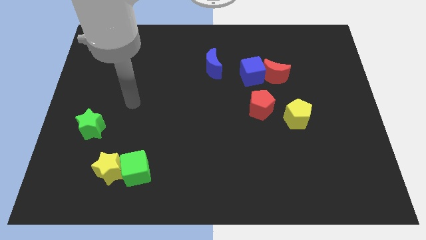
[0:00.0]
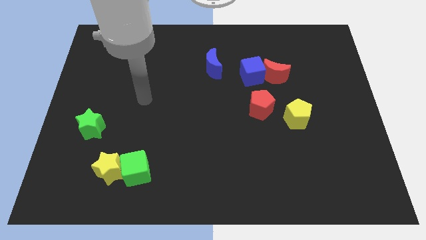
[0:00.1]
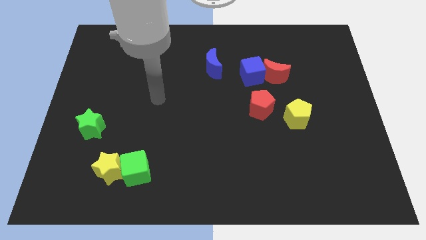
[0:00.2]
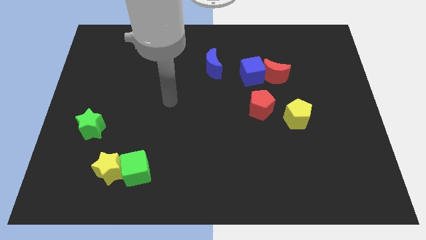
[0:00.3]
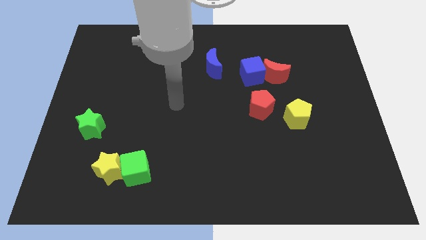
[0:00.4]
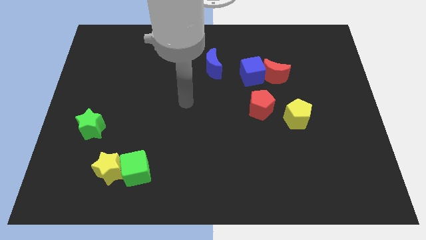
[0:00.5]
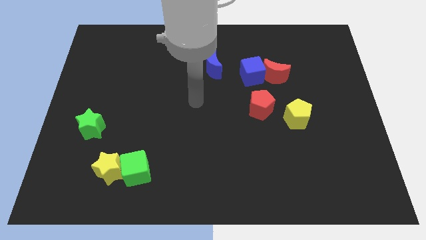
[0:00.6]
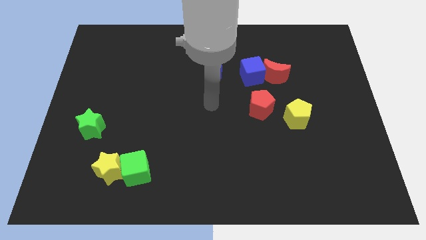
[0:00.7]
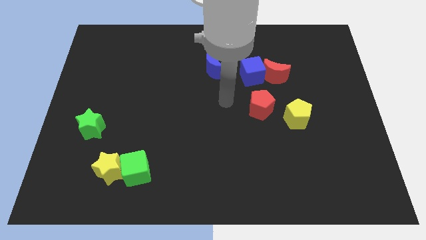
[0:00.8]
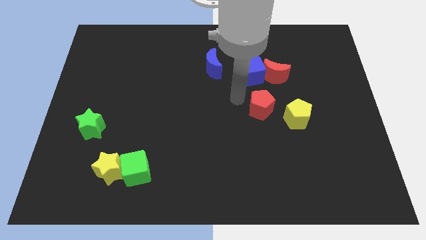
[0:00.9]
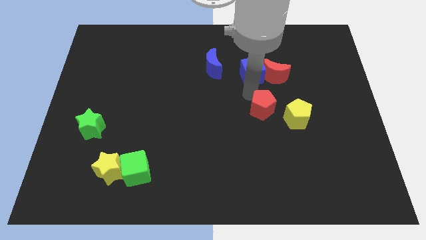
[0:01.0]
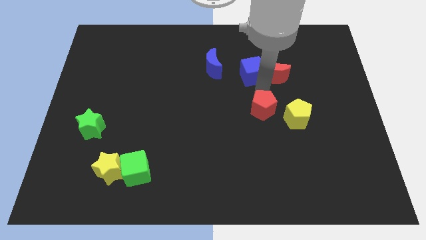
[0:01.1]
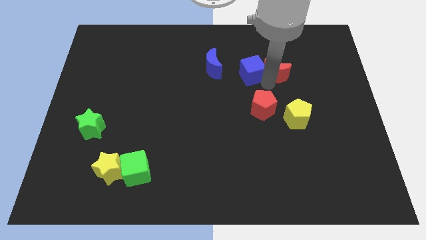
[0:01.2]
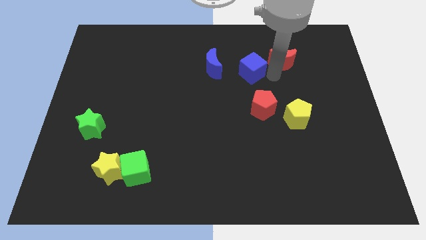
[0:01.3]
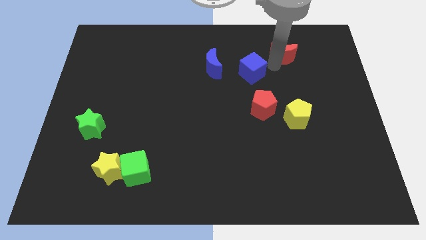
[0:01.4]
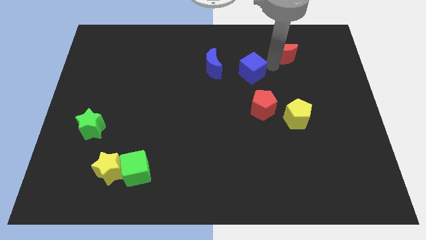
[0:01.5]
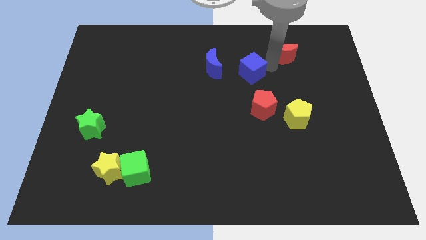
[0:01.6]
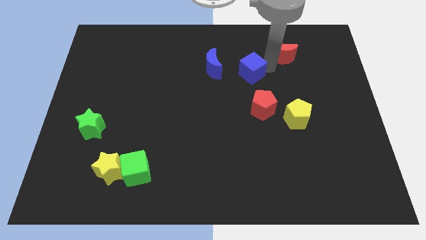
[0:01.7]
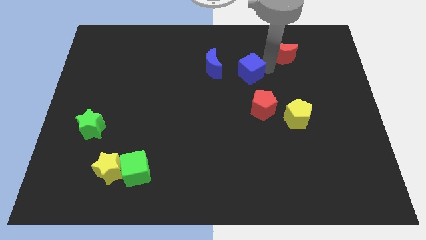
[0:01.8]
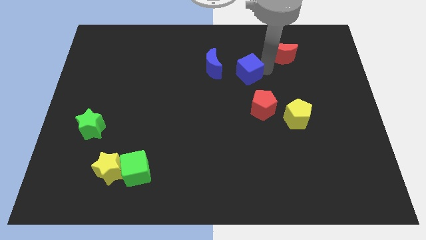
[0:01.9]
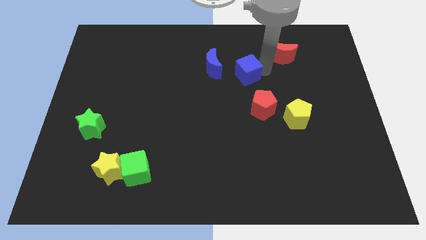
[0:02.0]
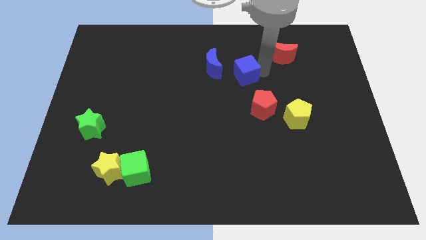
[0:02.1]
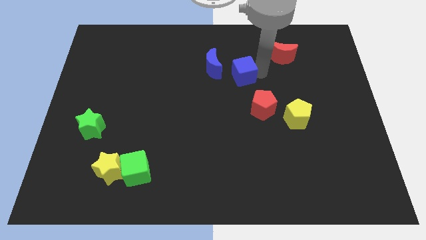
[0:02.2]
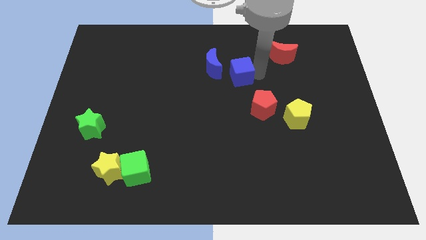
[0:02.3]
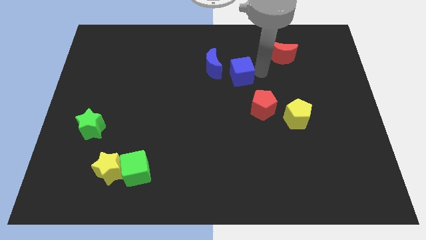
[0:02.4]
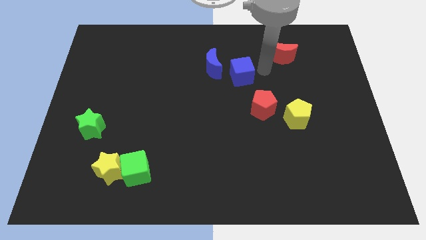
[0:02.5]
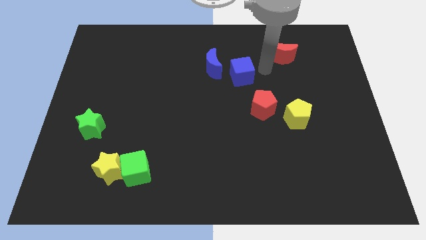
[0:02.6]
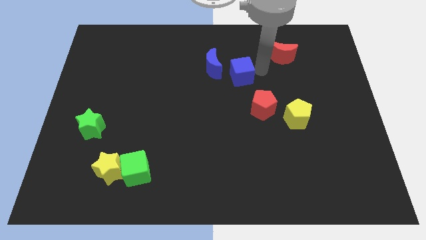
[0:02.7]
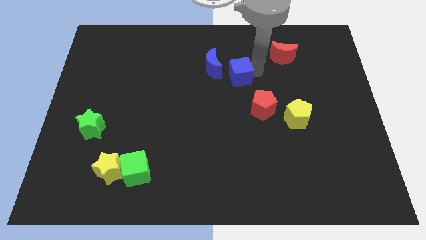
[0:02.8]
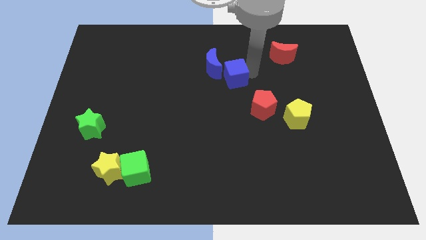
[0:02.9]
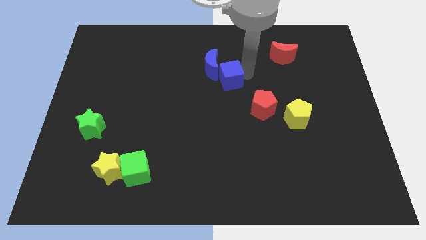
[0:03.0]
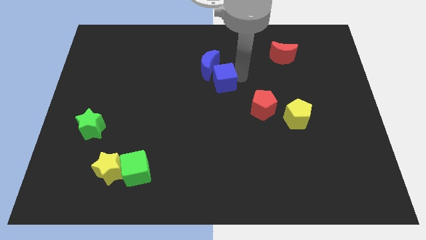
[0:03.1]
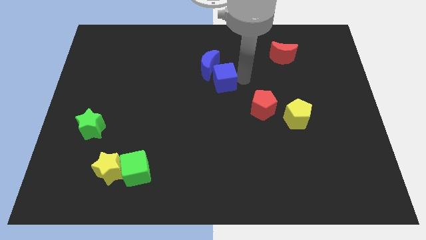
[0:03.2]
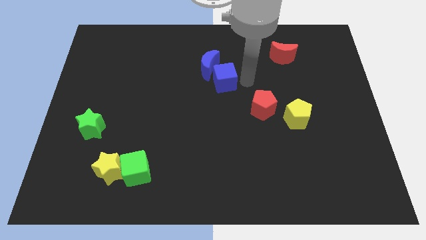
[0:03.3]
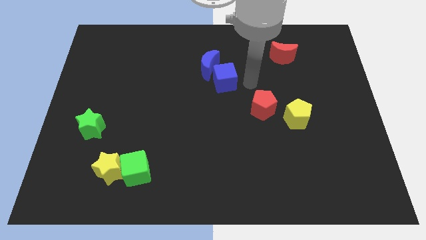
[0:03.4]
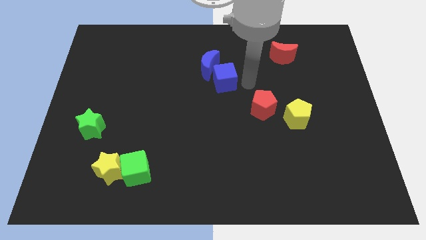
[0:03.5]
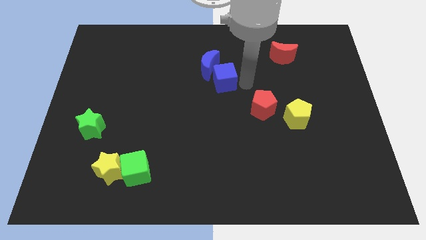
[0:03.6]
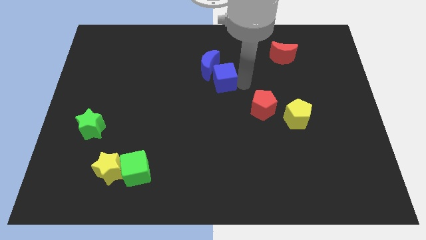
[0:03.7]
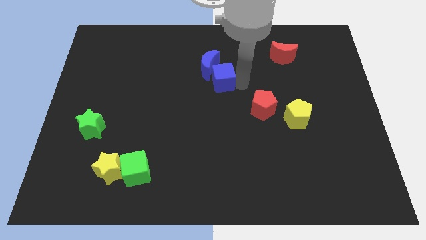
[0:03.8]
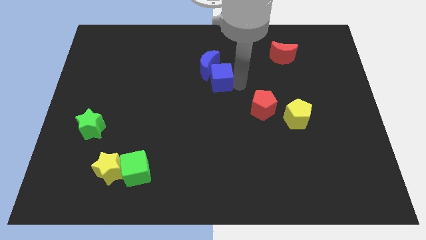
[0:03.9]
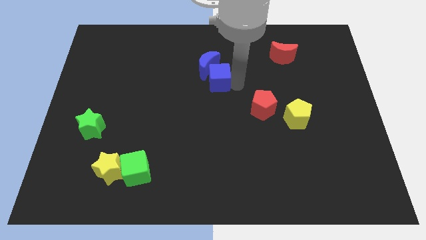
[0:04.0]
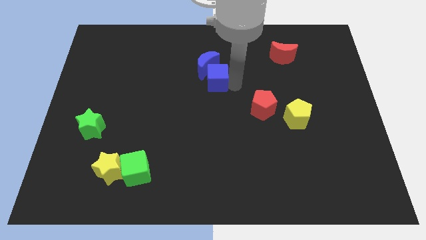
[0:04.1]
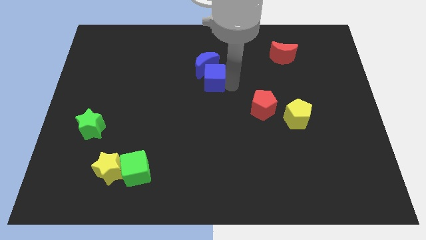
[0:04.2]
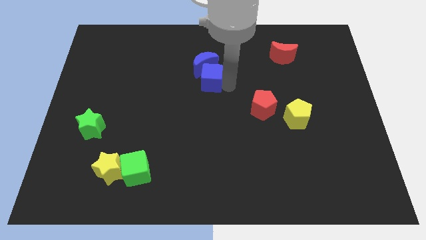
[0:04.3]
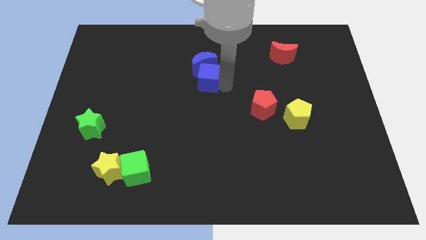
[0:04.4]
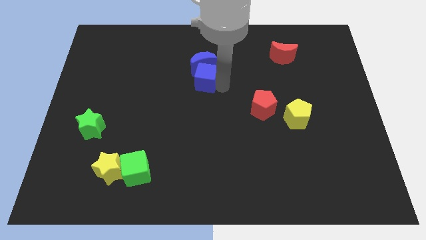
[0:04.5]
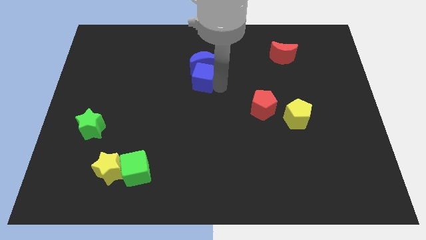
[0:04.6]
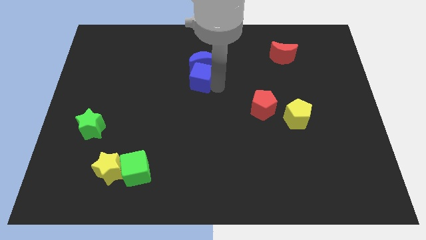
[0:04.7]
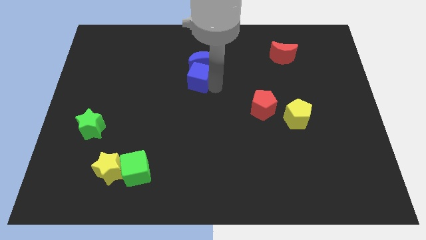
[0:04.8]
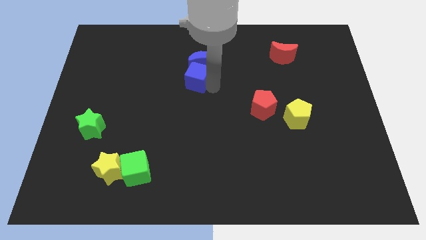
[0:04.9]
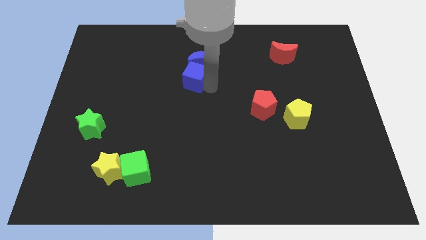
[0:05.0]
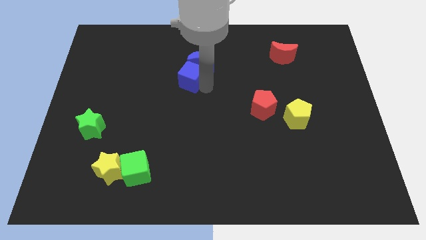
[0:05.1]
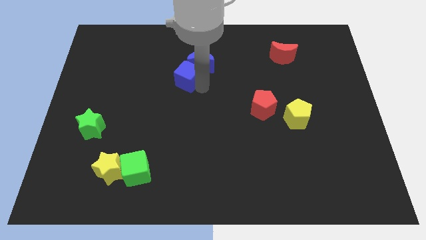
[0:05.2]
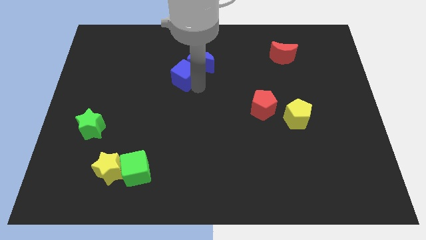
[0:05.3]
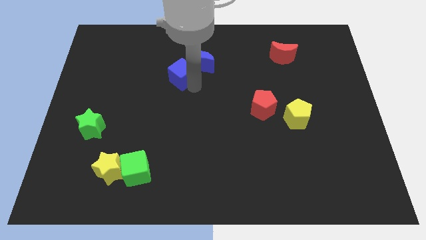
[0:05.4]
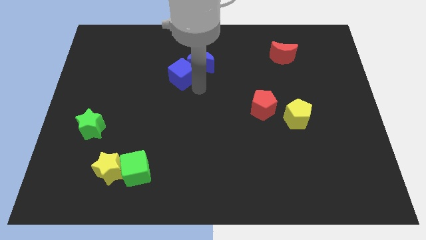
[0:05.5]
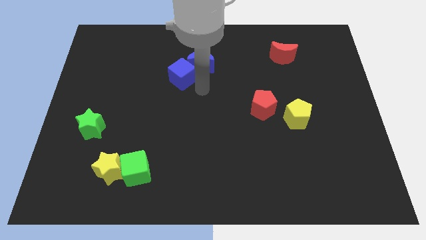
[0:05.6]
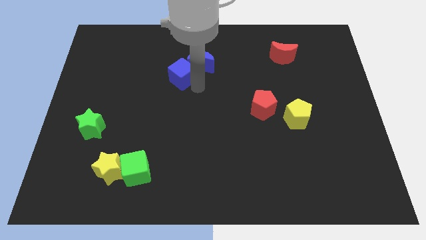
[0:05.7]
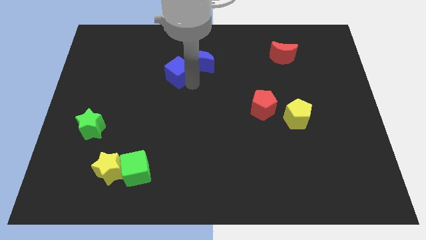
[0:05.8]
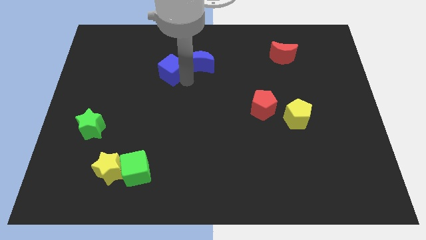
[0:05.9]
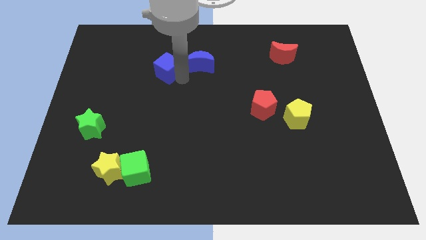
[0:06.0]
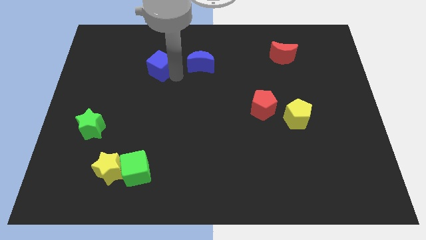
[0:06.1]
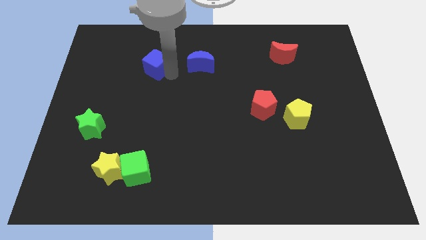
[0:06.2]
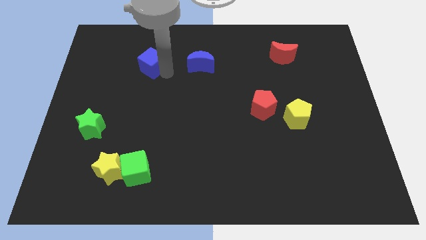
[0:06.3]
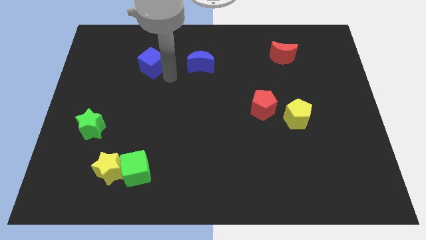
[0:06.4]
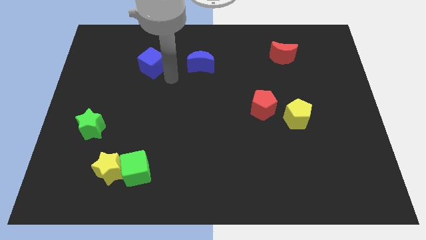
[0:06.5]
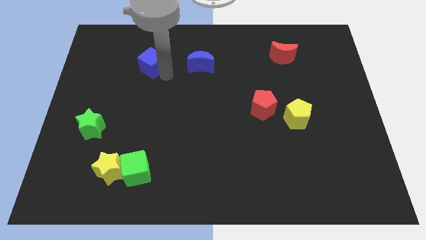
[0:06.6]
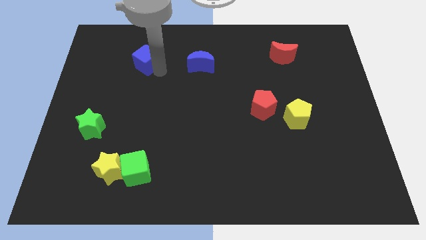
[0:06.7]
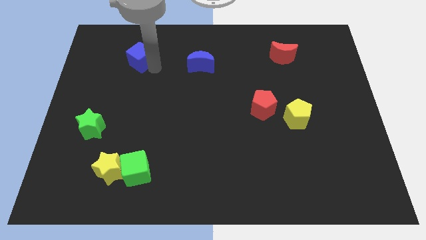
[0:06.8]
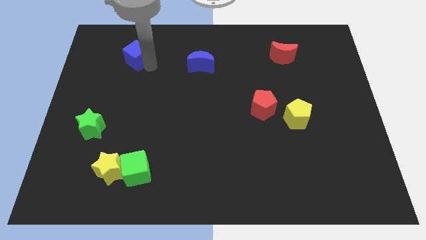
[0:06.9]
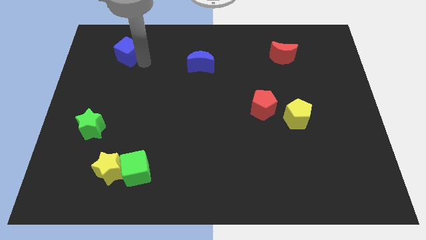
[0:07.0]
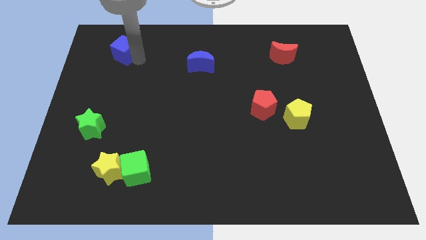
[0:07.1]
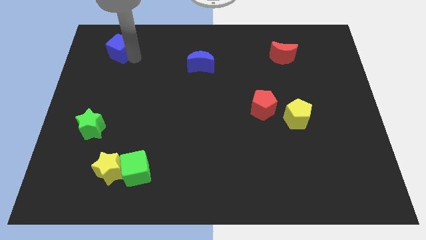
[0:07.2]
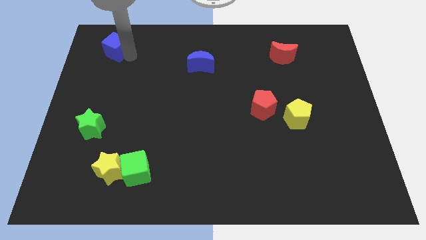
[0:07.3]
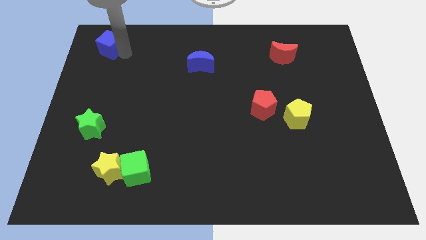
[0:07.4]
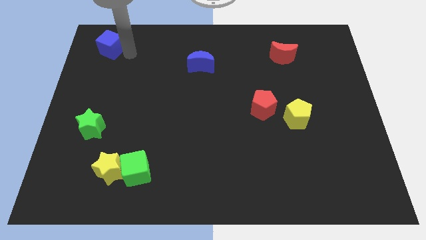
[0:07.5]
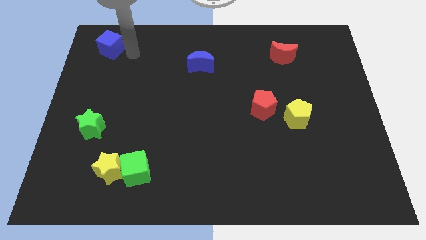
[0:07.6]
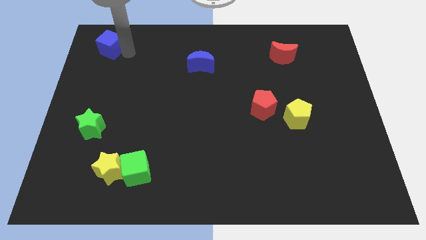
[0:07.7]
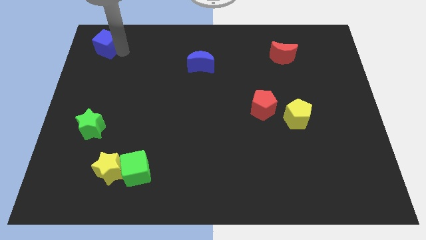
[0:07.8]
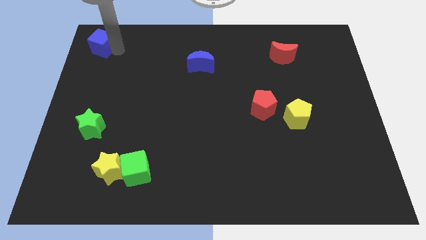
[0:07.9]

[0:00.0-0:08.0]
slide the blue cube to the top left of the board
